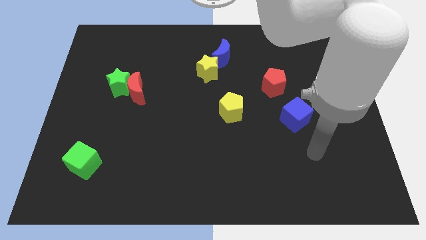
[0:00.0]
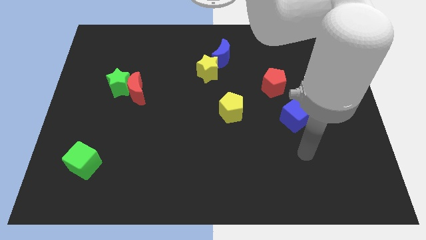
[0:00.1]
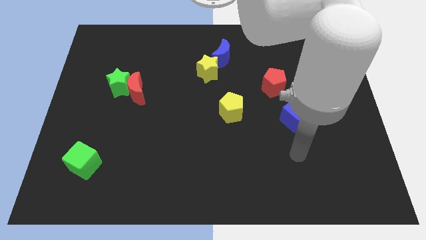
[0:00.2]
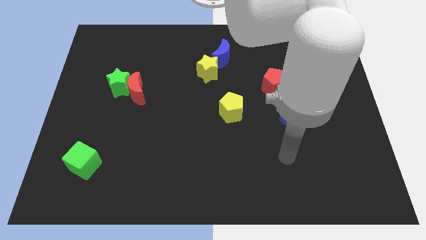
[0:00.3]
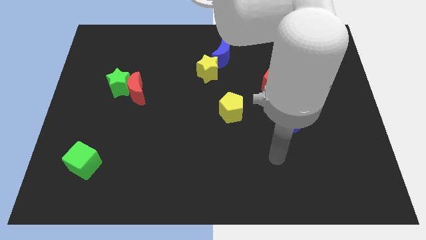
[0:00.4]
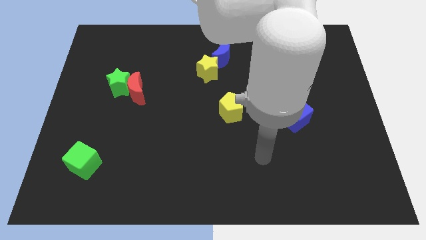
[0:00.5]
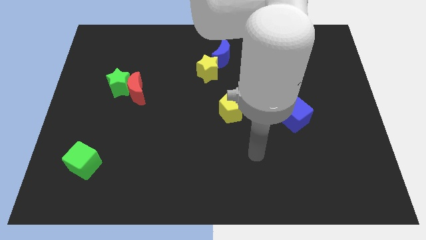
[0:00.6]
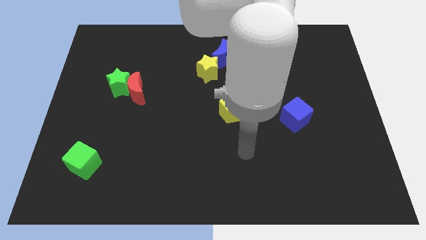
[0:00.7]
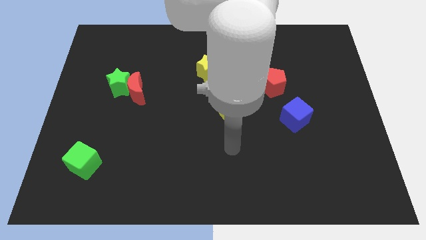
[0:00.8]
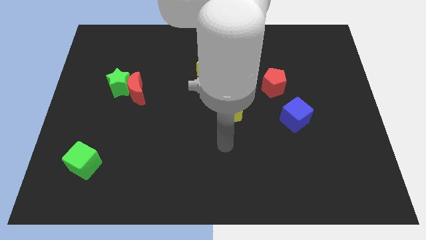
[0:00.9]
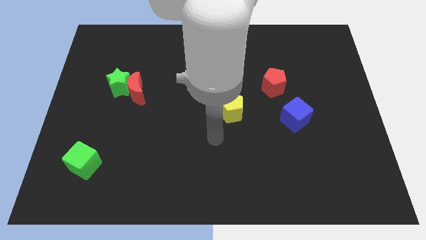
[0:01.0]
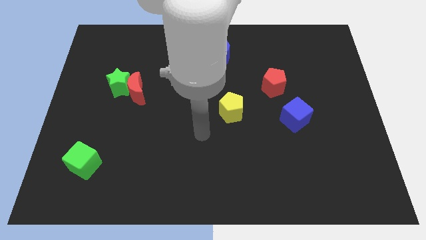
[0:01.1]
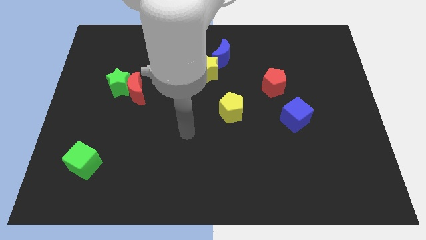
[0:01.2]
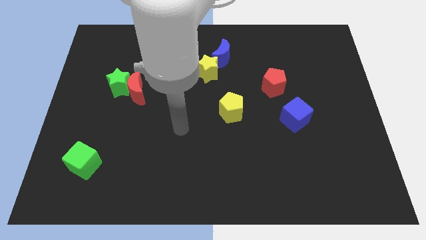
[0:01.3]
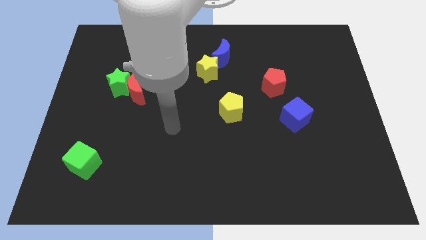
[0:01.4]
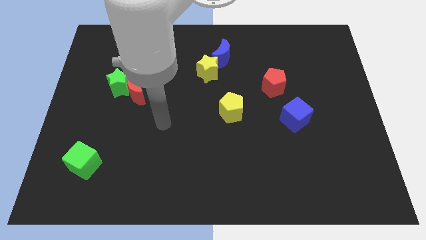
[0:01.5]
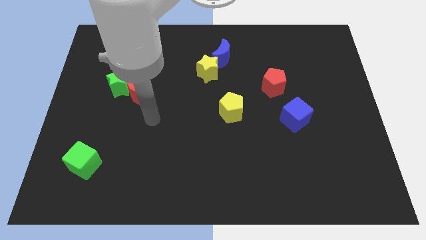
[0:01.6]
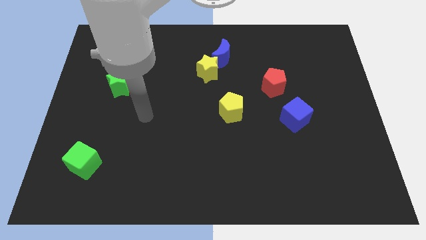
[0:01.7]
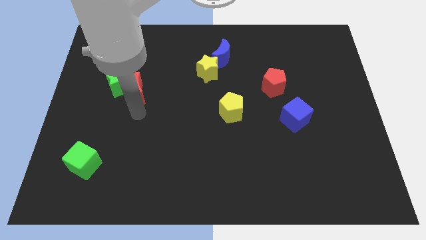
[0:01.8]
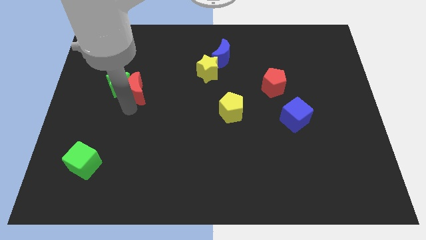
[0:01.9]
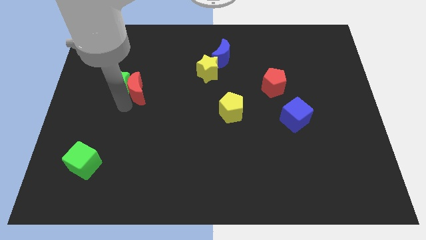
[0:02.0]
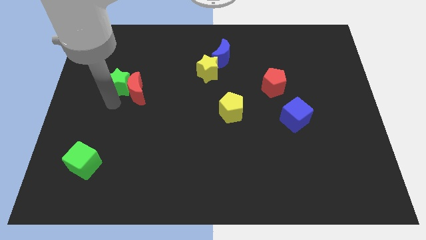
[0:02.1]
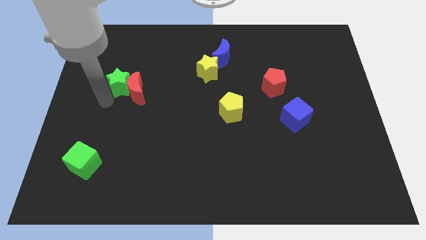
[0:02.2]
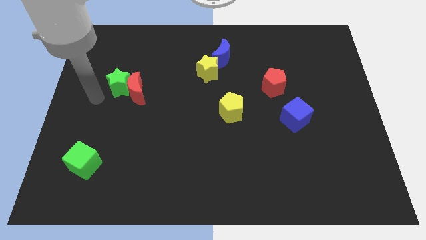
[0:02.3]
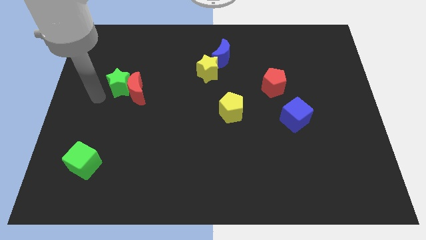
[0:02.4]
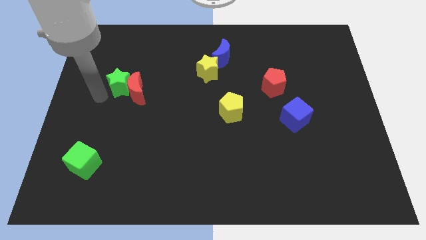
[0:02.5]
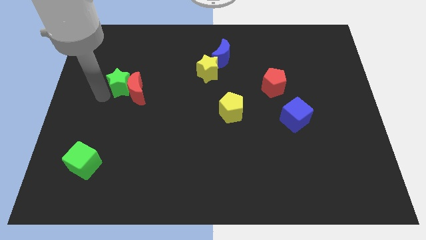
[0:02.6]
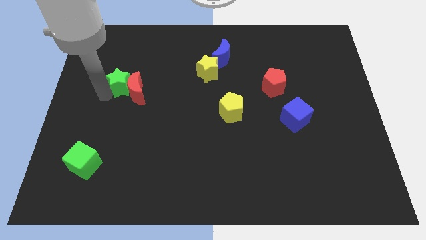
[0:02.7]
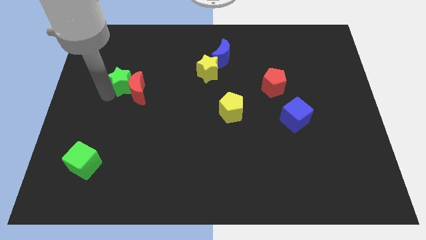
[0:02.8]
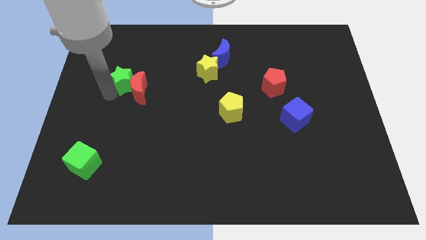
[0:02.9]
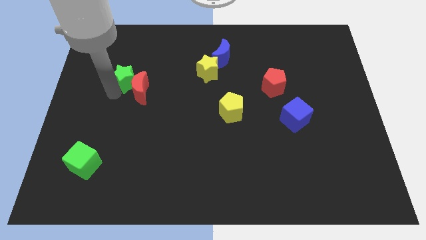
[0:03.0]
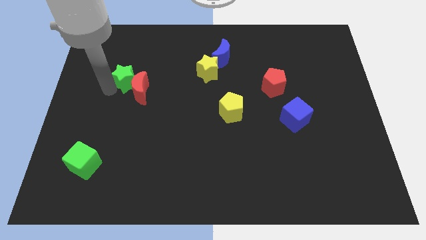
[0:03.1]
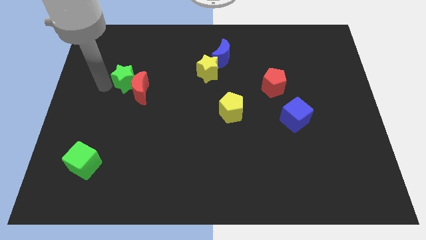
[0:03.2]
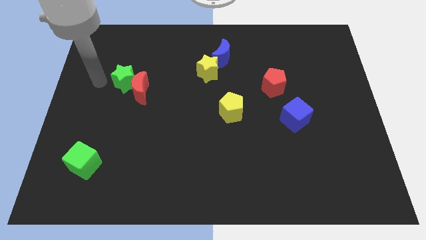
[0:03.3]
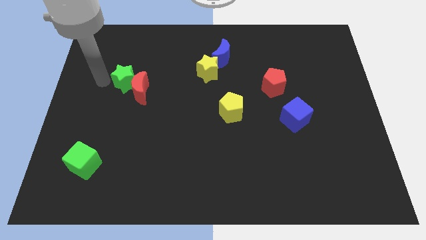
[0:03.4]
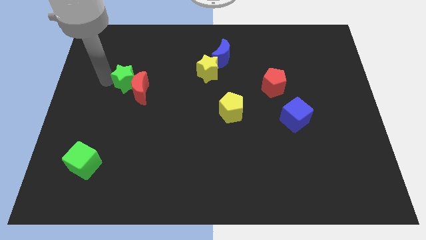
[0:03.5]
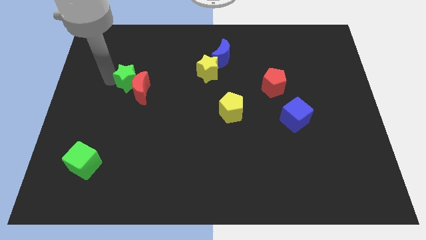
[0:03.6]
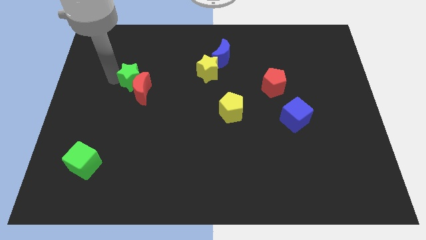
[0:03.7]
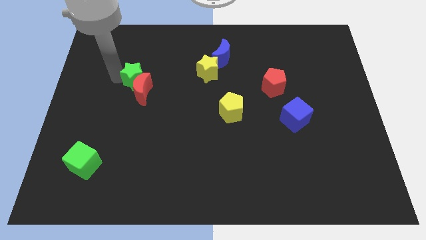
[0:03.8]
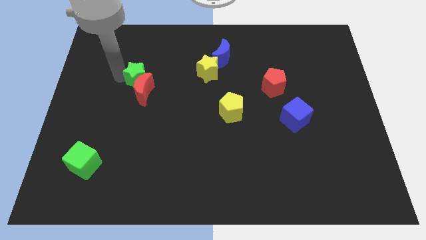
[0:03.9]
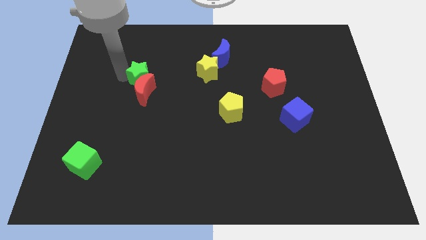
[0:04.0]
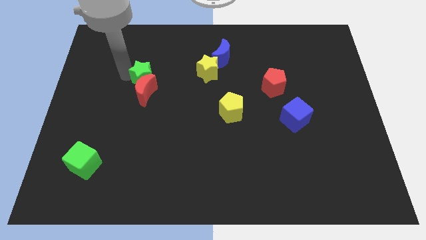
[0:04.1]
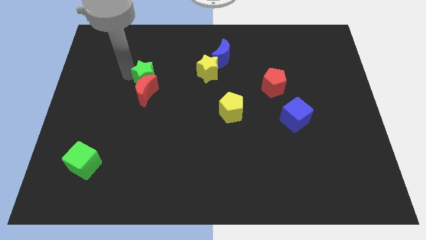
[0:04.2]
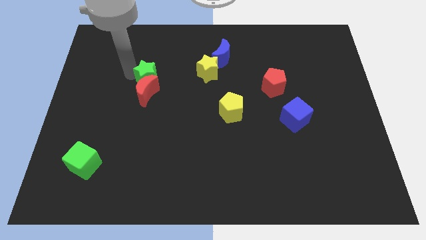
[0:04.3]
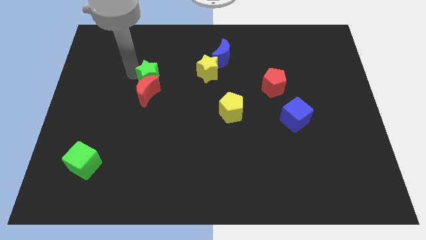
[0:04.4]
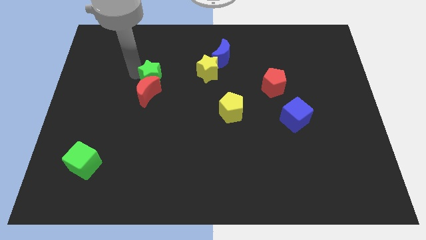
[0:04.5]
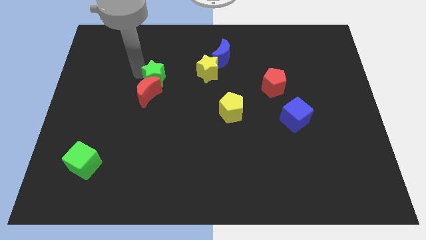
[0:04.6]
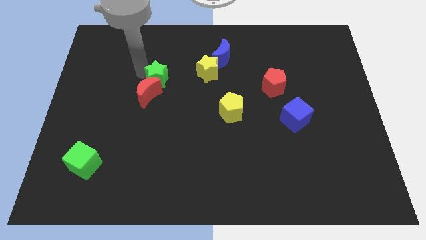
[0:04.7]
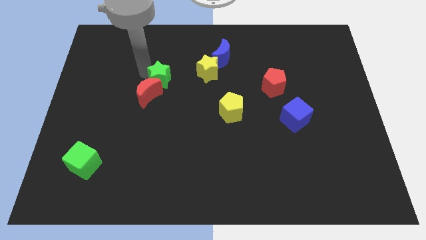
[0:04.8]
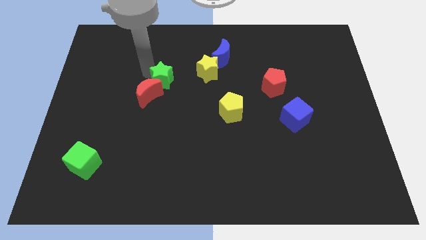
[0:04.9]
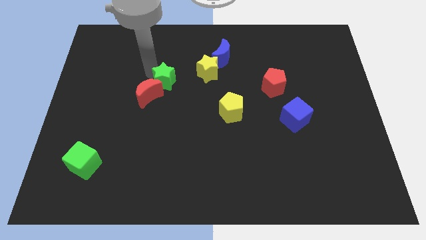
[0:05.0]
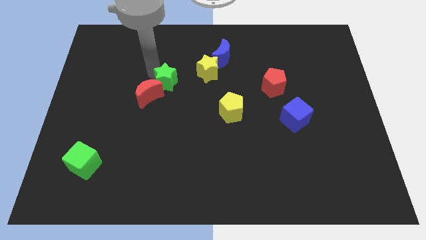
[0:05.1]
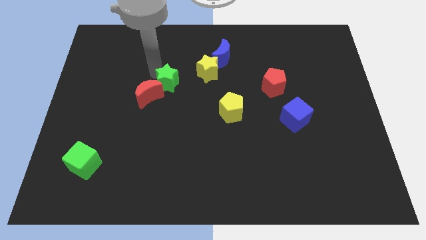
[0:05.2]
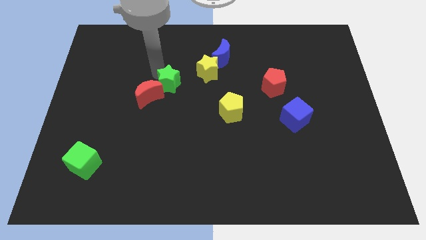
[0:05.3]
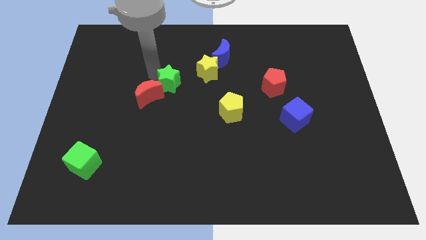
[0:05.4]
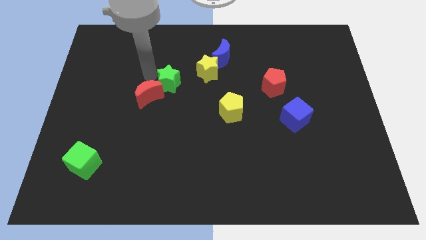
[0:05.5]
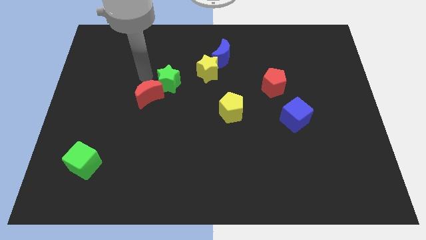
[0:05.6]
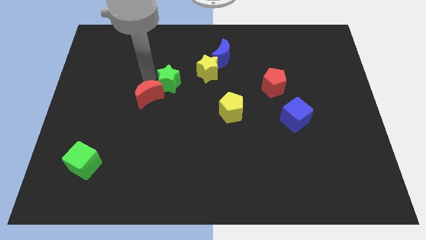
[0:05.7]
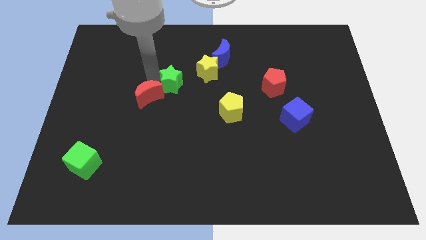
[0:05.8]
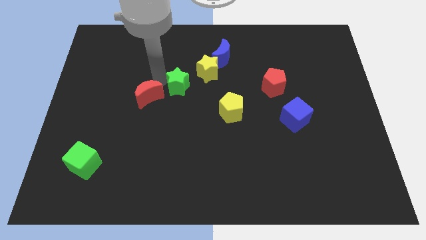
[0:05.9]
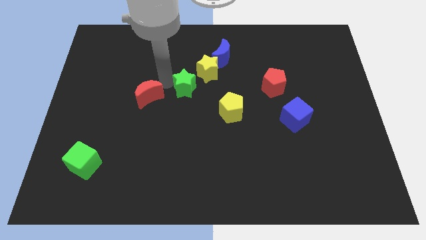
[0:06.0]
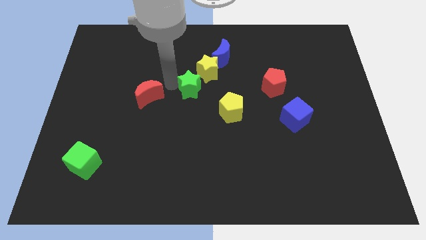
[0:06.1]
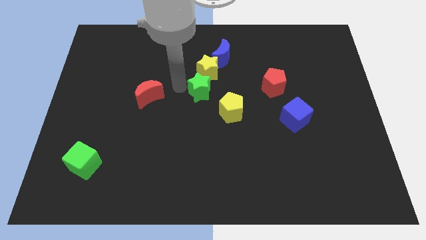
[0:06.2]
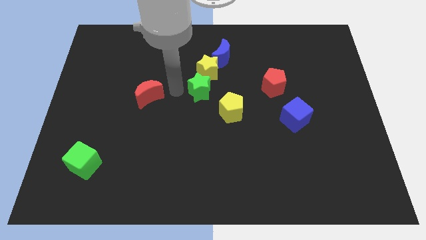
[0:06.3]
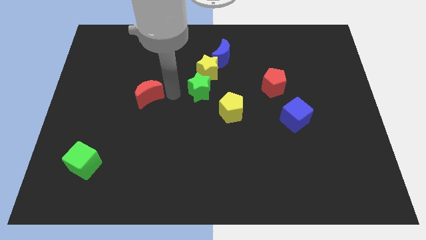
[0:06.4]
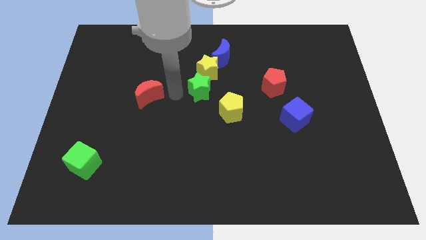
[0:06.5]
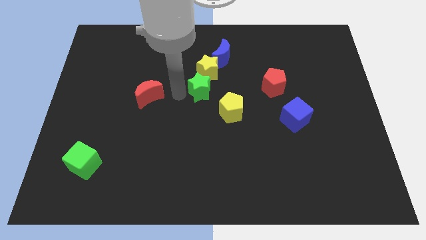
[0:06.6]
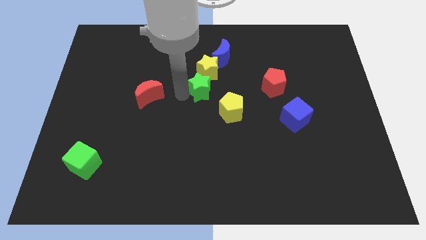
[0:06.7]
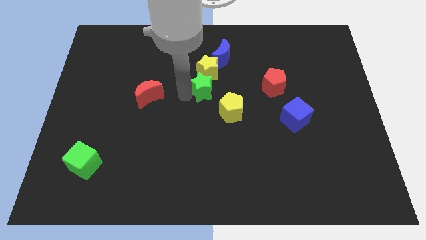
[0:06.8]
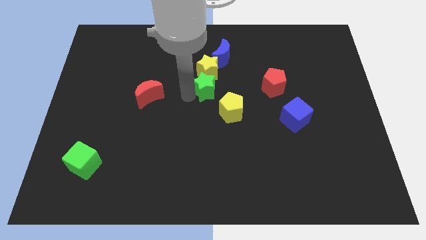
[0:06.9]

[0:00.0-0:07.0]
move the green star below the blue moon
